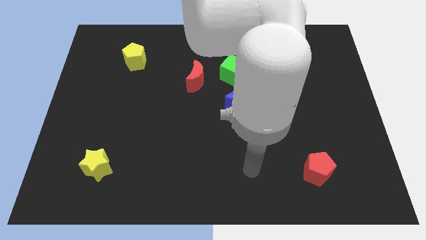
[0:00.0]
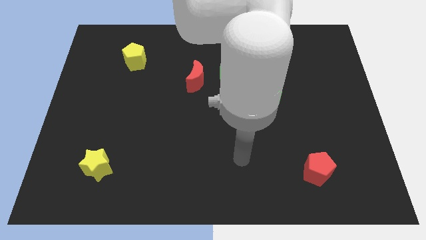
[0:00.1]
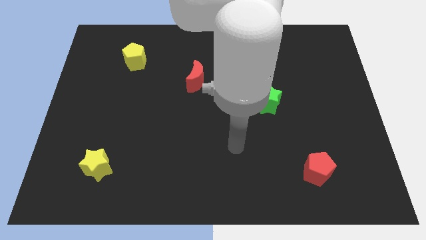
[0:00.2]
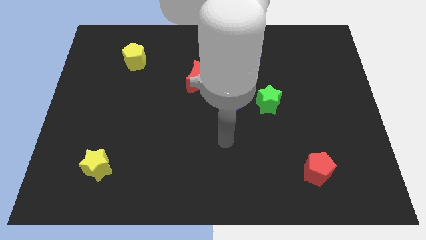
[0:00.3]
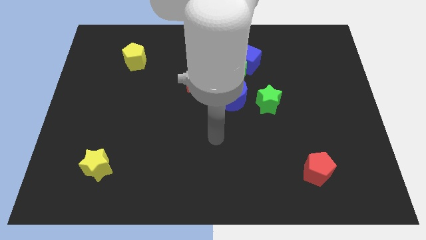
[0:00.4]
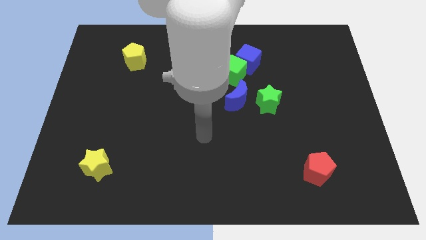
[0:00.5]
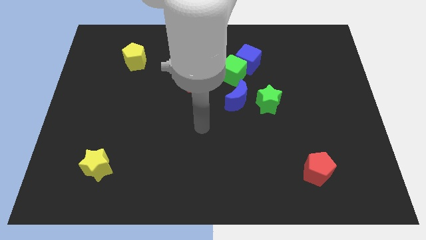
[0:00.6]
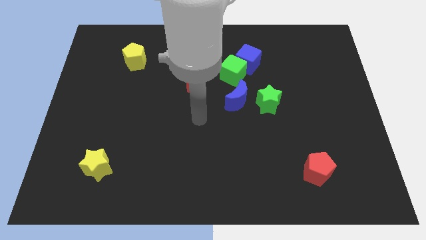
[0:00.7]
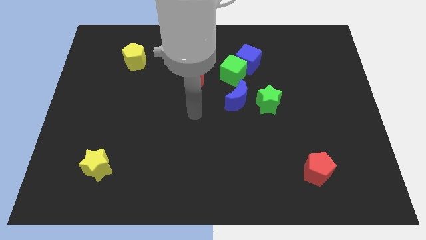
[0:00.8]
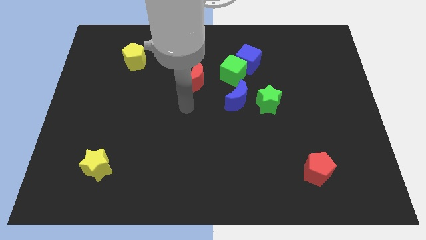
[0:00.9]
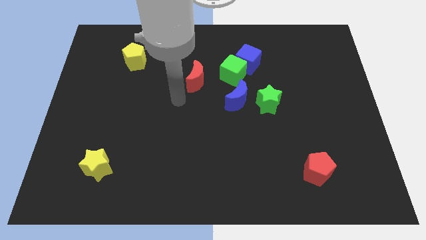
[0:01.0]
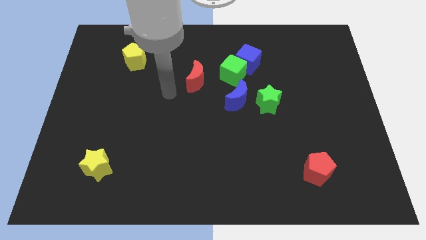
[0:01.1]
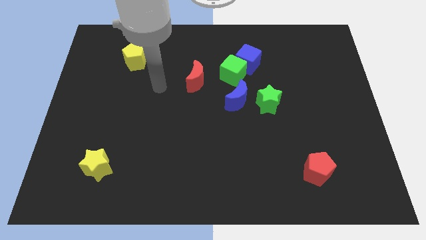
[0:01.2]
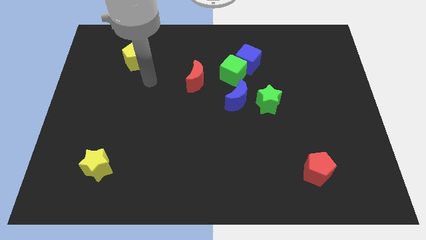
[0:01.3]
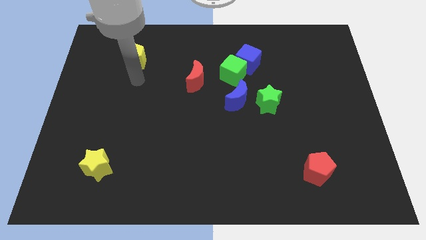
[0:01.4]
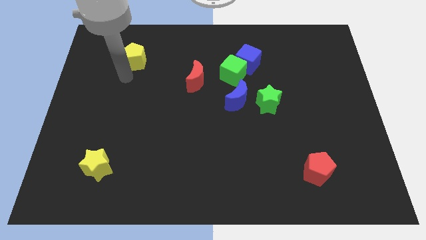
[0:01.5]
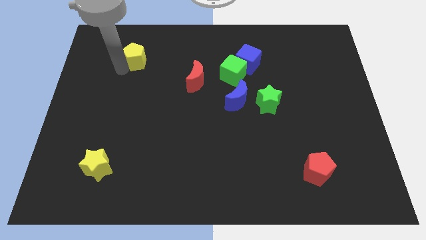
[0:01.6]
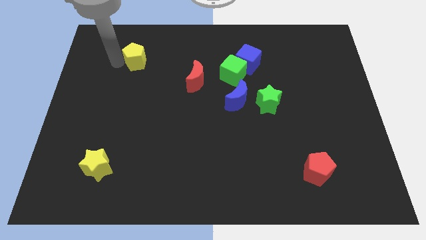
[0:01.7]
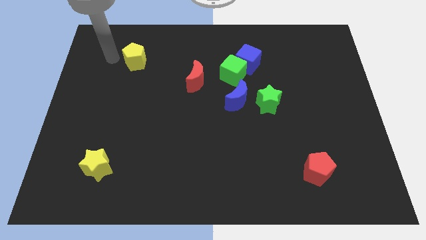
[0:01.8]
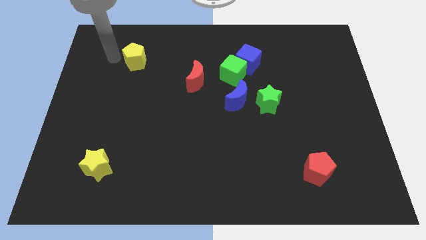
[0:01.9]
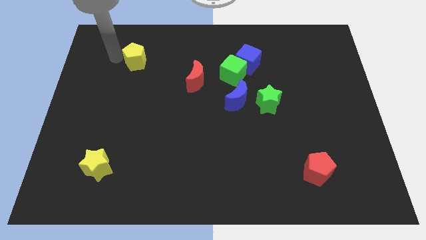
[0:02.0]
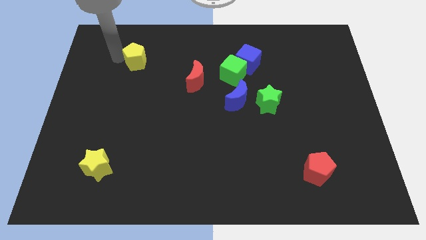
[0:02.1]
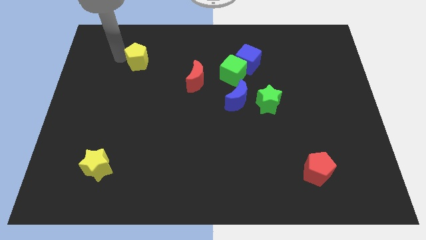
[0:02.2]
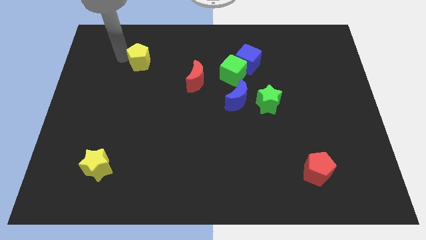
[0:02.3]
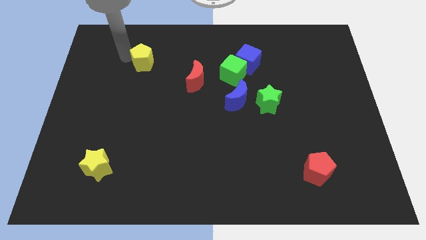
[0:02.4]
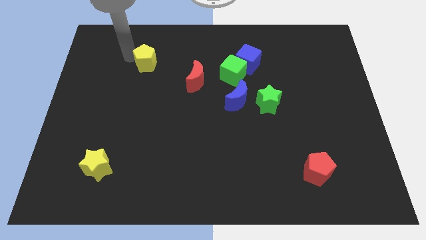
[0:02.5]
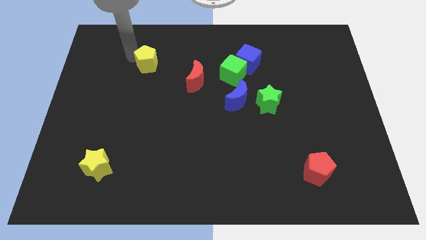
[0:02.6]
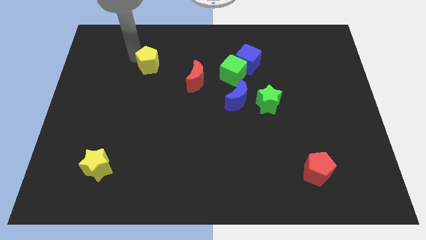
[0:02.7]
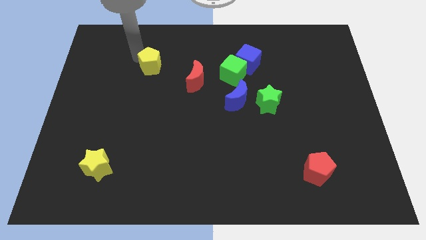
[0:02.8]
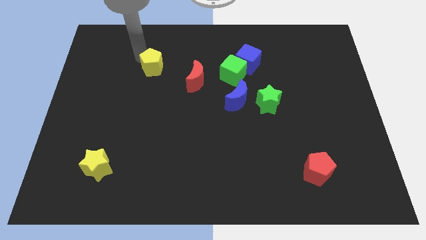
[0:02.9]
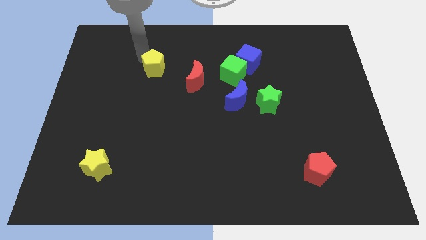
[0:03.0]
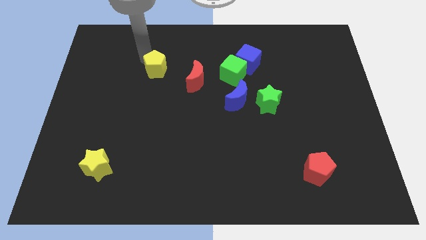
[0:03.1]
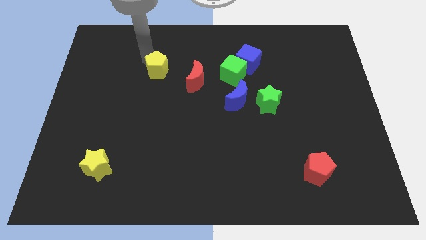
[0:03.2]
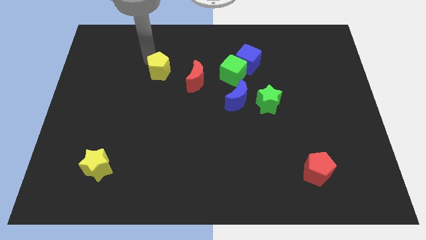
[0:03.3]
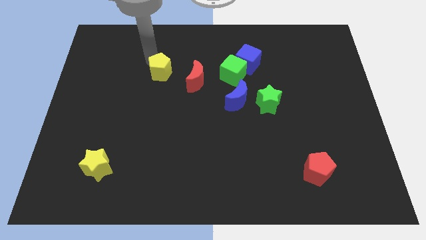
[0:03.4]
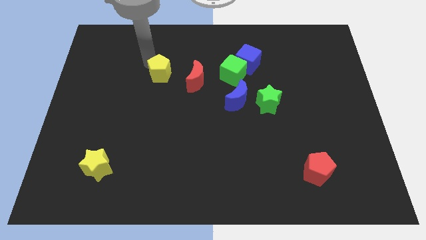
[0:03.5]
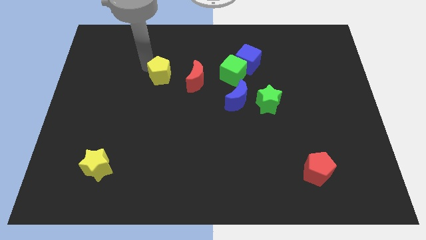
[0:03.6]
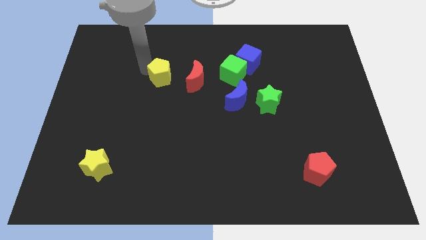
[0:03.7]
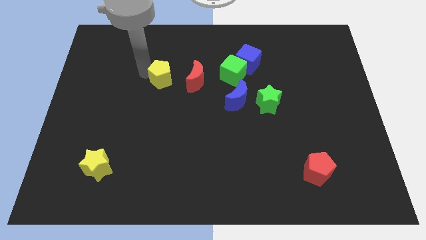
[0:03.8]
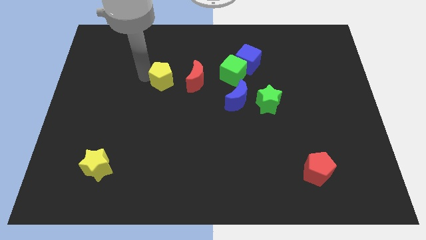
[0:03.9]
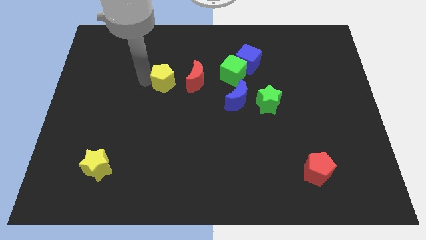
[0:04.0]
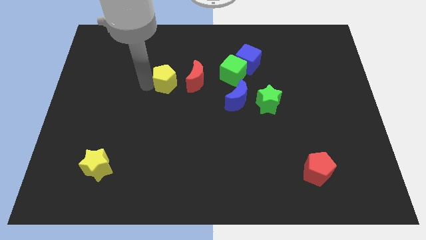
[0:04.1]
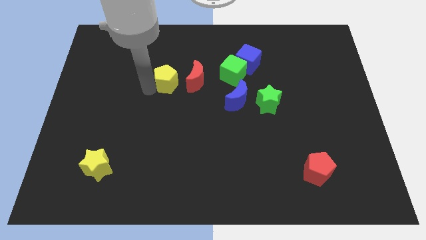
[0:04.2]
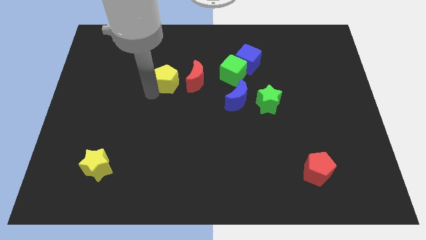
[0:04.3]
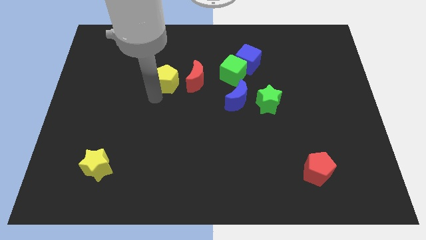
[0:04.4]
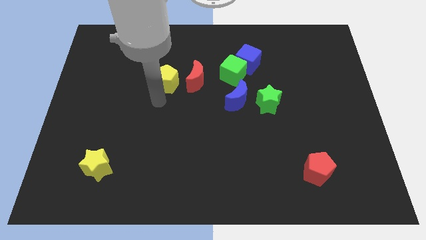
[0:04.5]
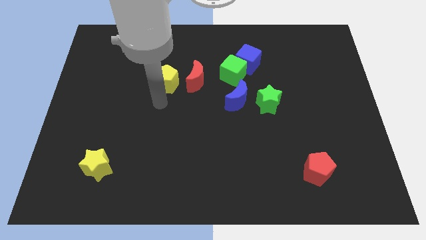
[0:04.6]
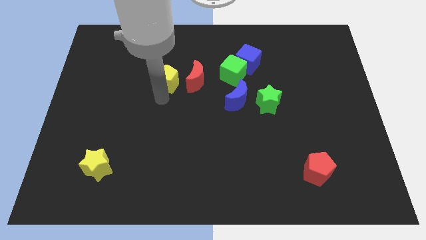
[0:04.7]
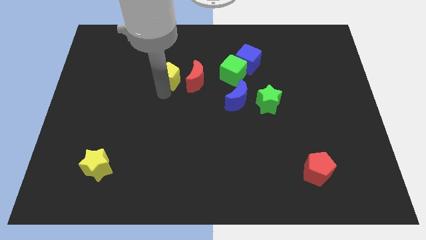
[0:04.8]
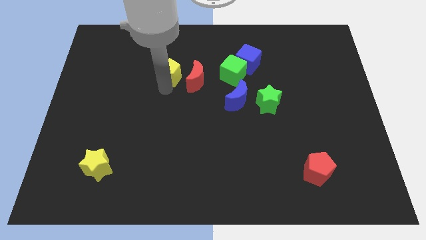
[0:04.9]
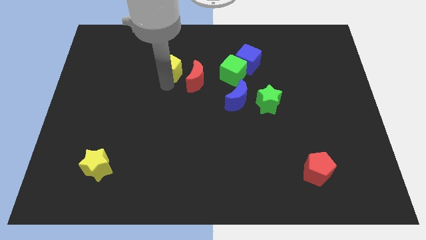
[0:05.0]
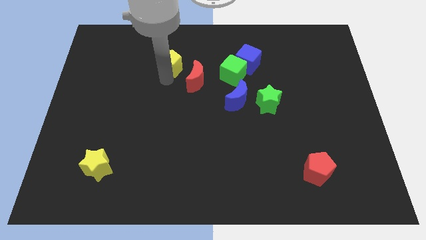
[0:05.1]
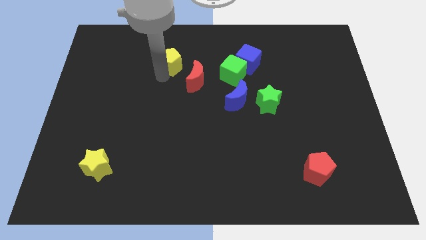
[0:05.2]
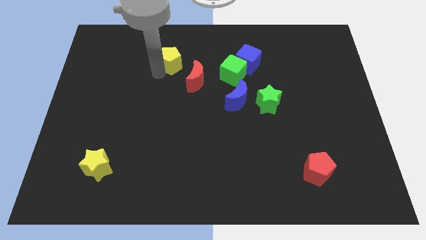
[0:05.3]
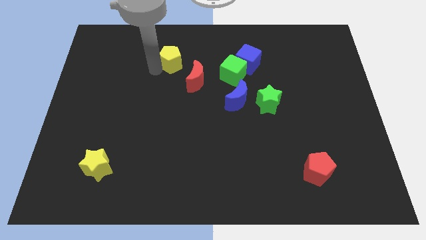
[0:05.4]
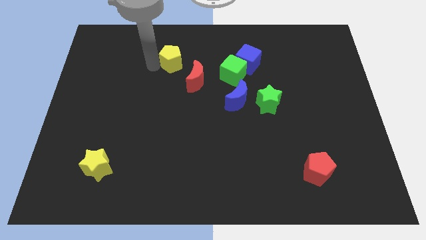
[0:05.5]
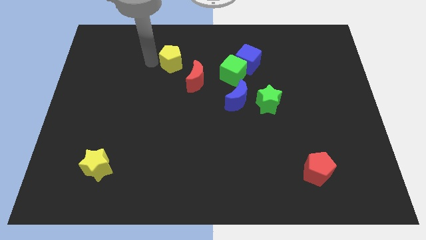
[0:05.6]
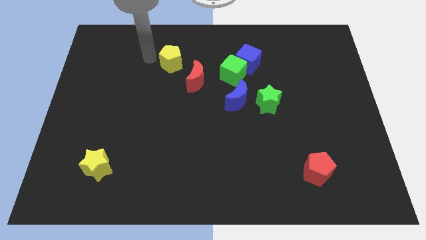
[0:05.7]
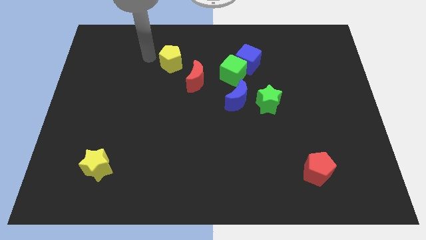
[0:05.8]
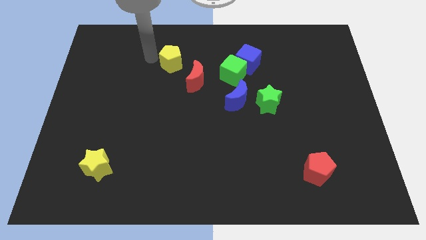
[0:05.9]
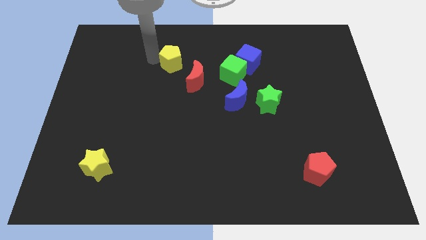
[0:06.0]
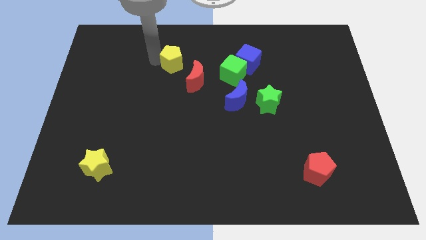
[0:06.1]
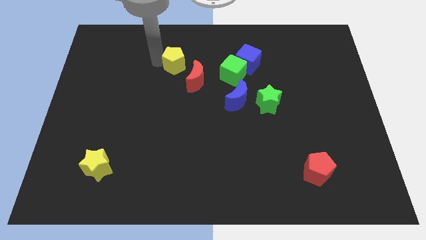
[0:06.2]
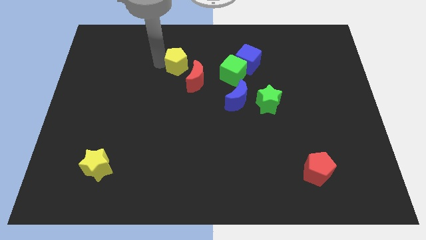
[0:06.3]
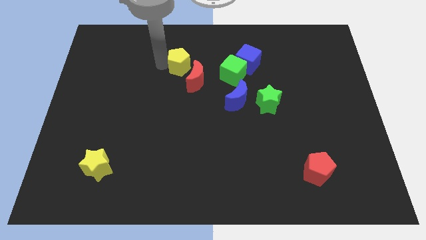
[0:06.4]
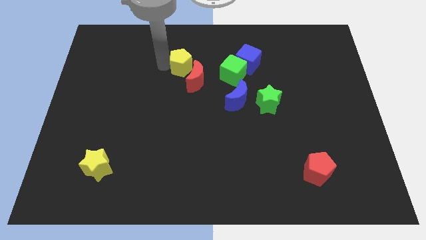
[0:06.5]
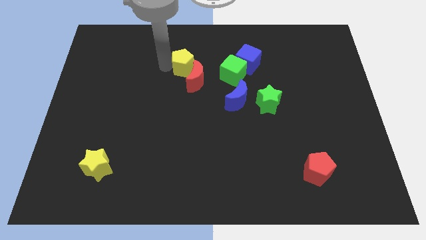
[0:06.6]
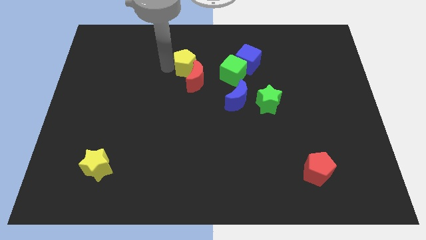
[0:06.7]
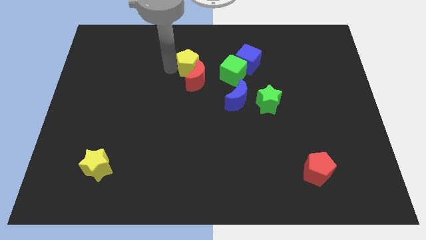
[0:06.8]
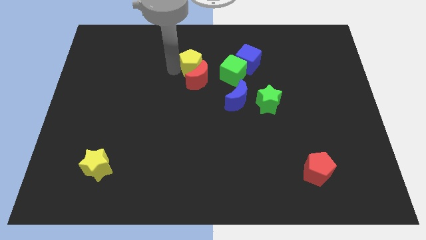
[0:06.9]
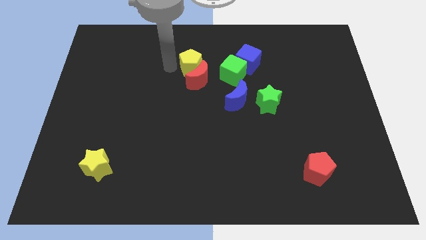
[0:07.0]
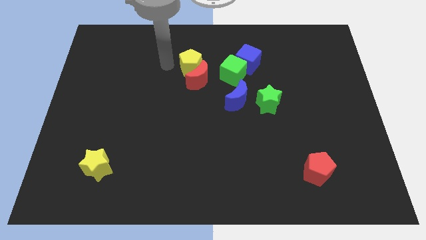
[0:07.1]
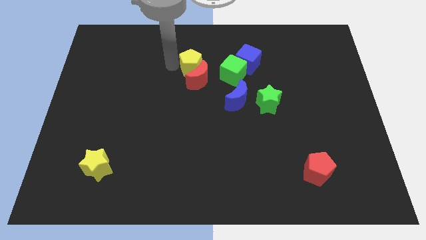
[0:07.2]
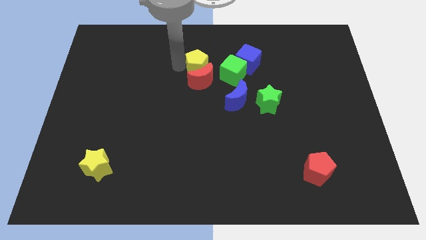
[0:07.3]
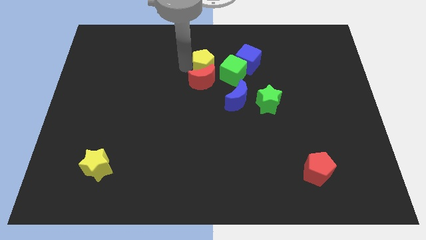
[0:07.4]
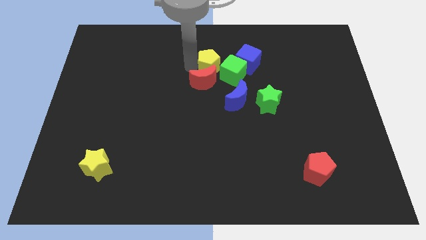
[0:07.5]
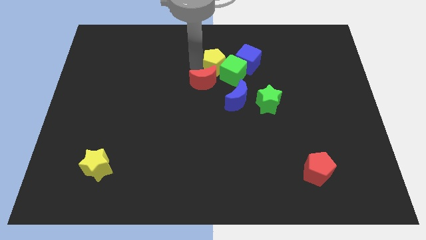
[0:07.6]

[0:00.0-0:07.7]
push the yellow pentagon next to the green cube
